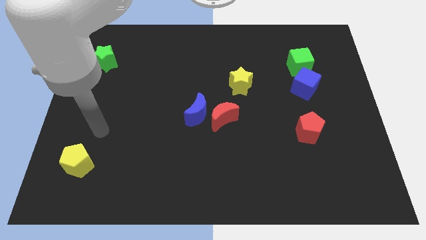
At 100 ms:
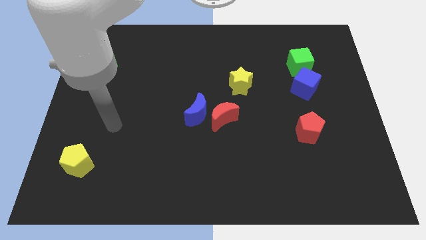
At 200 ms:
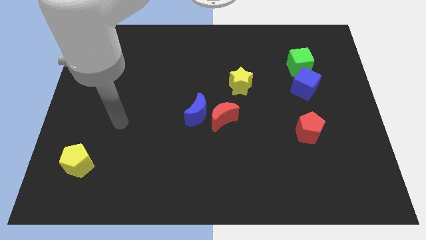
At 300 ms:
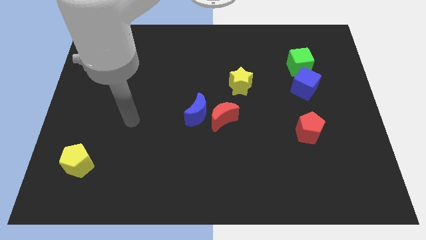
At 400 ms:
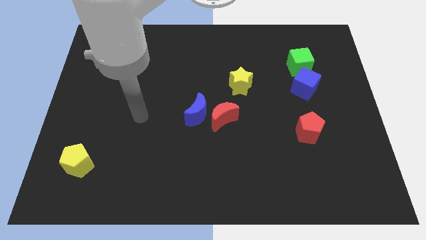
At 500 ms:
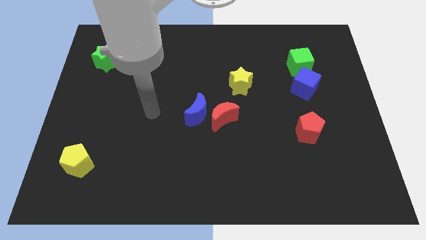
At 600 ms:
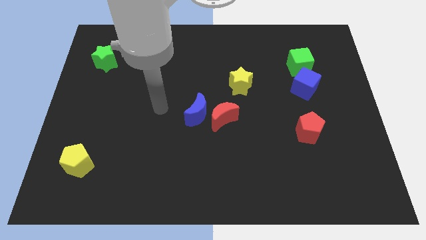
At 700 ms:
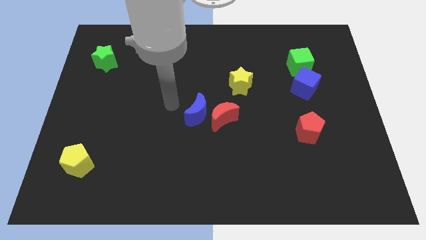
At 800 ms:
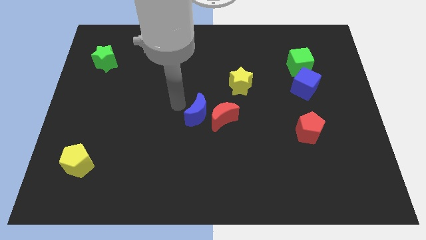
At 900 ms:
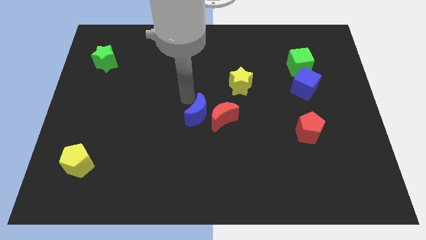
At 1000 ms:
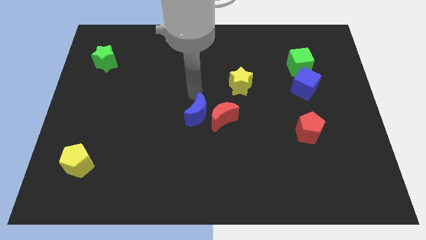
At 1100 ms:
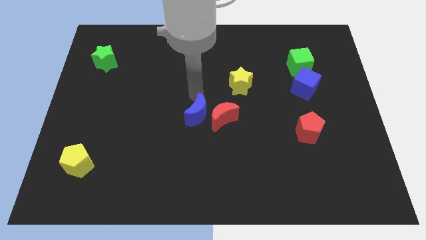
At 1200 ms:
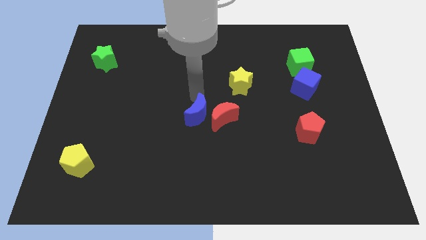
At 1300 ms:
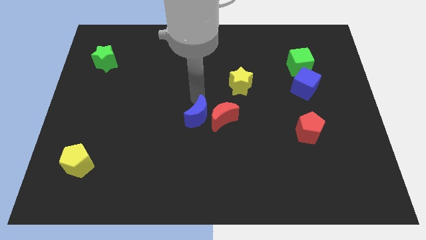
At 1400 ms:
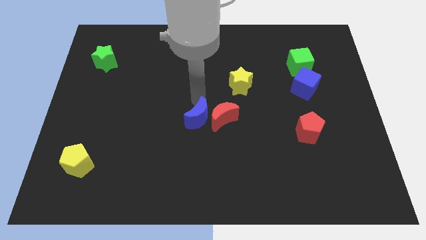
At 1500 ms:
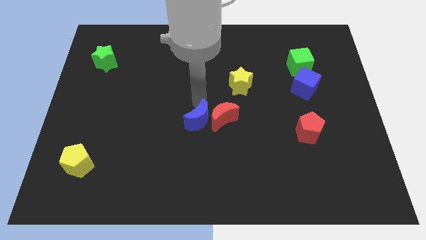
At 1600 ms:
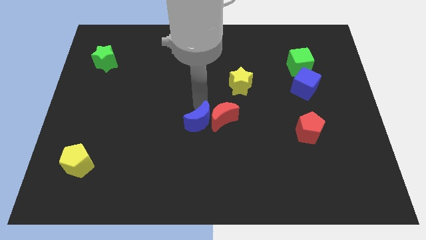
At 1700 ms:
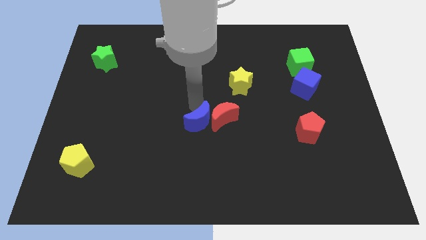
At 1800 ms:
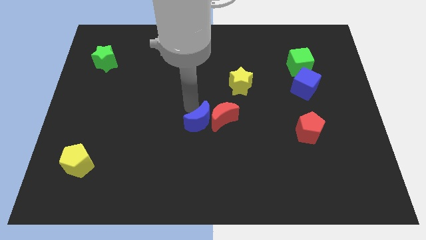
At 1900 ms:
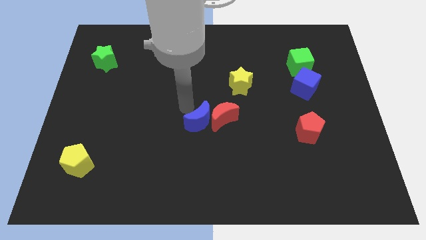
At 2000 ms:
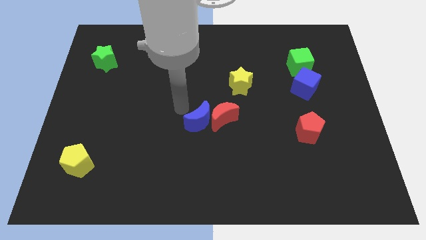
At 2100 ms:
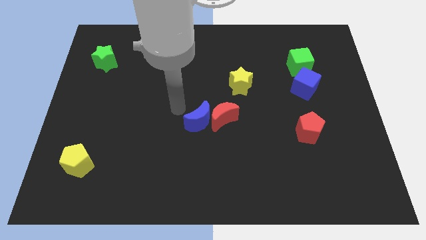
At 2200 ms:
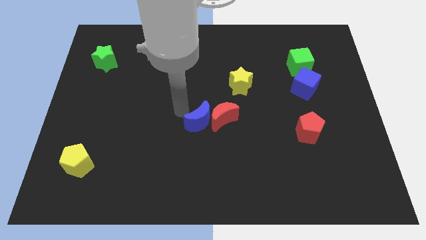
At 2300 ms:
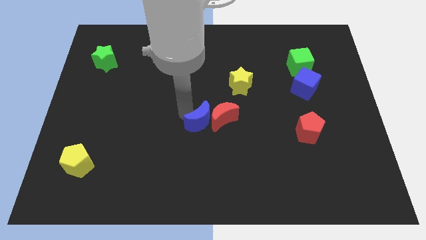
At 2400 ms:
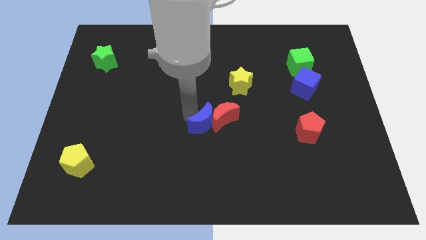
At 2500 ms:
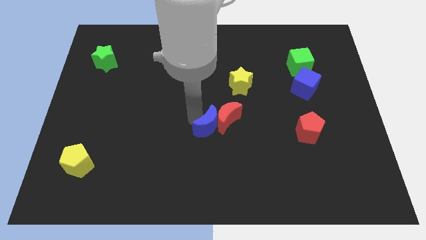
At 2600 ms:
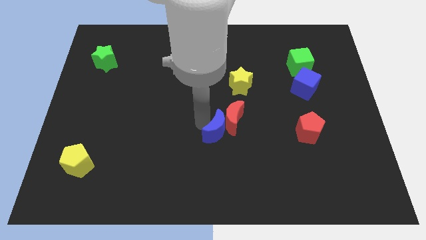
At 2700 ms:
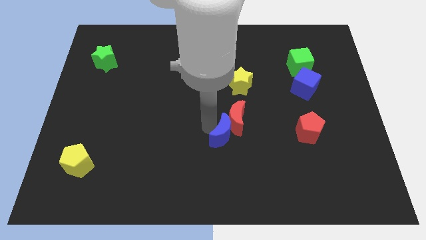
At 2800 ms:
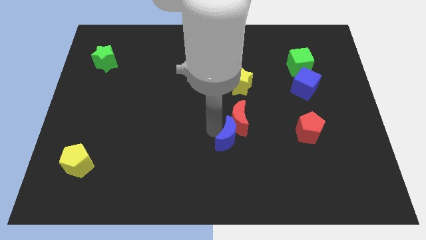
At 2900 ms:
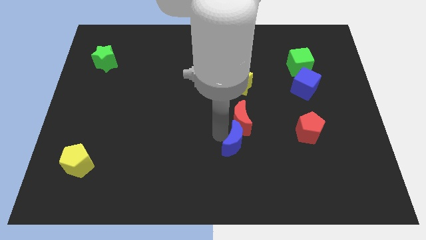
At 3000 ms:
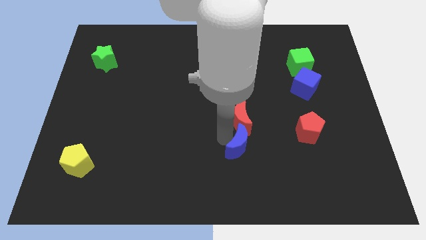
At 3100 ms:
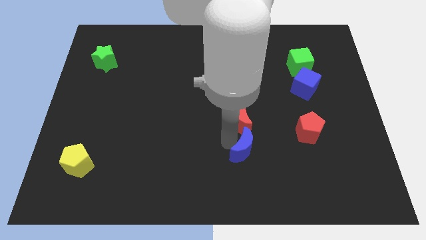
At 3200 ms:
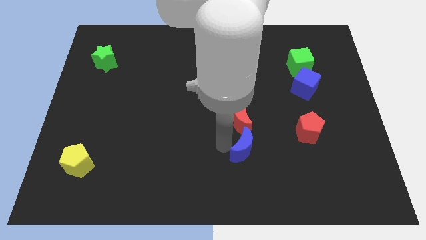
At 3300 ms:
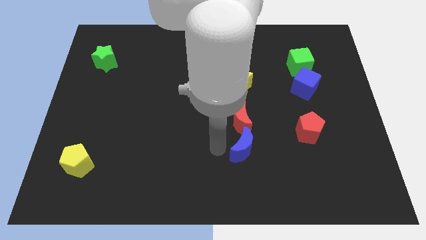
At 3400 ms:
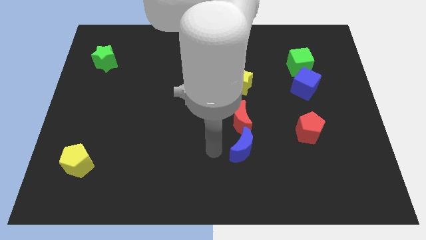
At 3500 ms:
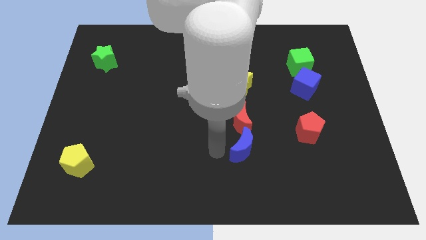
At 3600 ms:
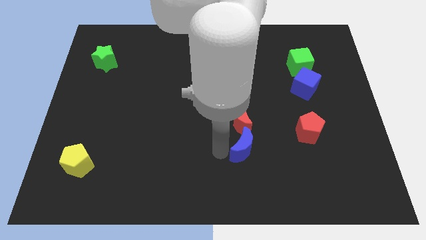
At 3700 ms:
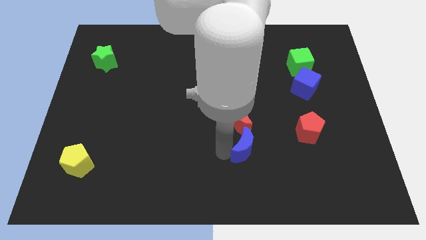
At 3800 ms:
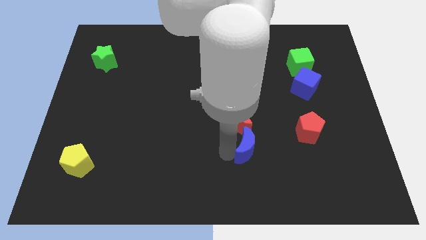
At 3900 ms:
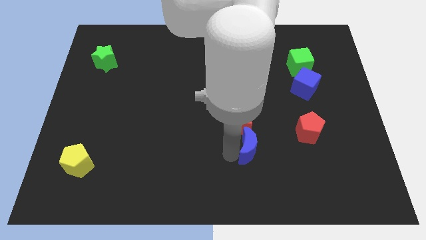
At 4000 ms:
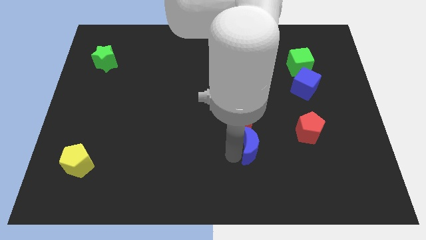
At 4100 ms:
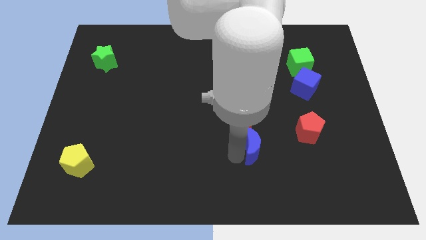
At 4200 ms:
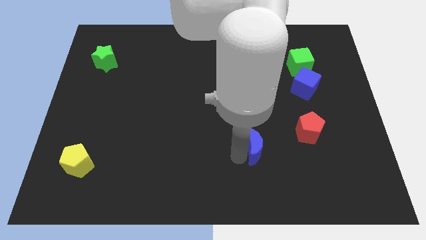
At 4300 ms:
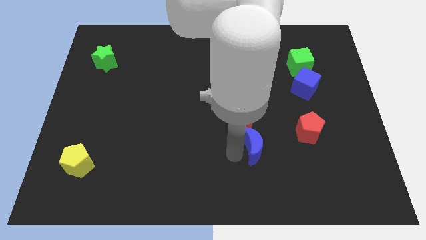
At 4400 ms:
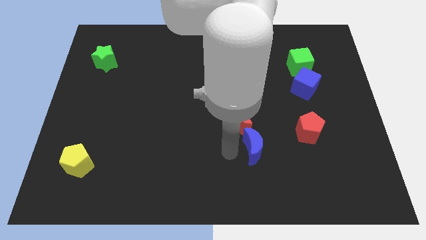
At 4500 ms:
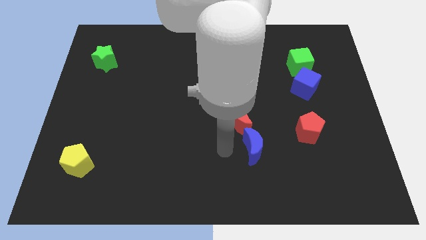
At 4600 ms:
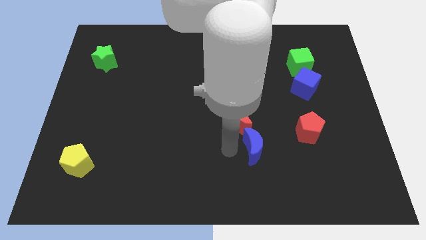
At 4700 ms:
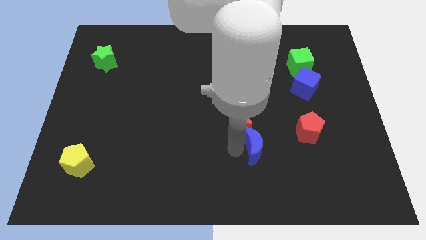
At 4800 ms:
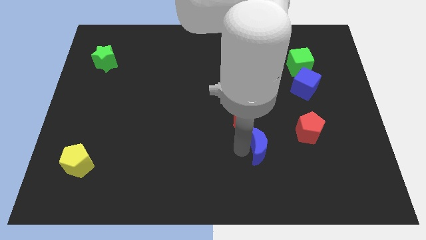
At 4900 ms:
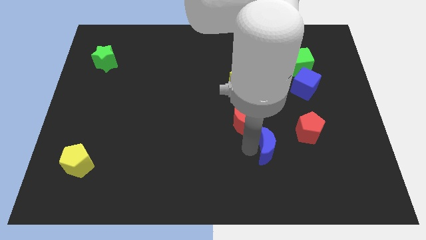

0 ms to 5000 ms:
put the blue moon diagonally down and to the left of the red pentagon

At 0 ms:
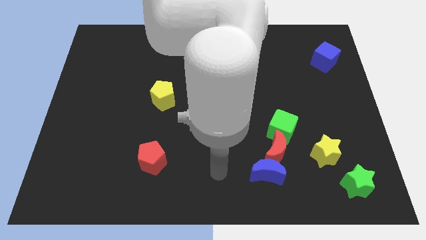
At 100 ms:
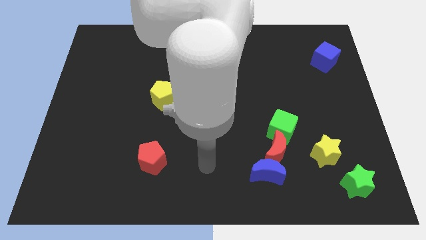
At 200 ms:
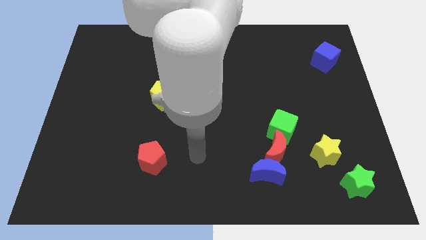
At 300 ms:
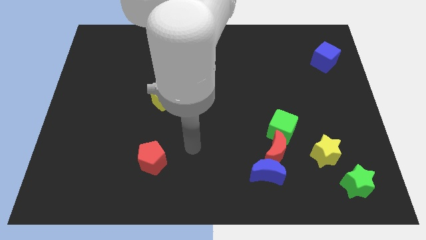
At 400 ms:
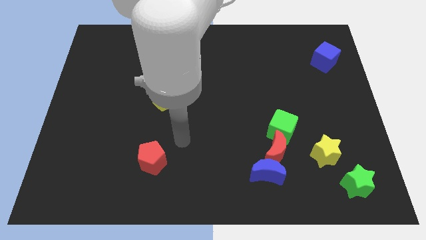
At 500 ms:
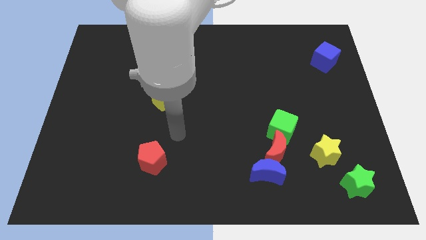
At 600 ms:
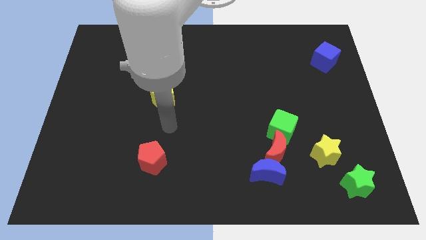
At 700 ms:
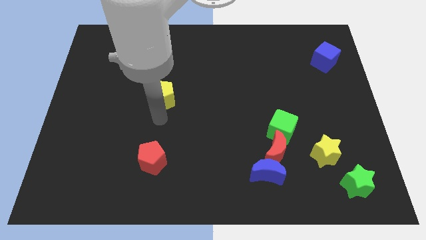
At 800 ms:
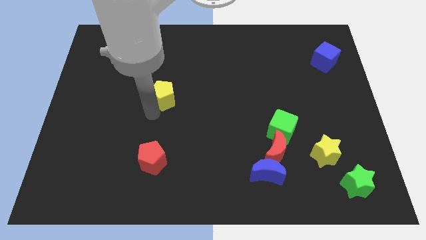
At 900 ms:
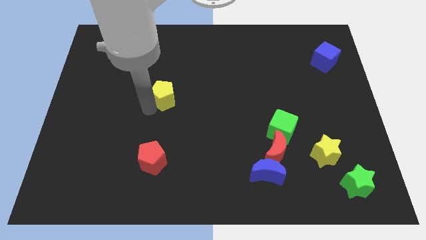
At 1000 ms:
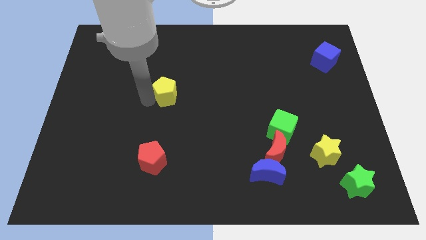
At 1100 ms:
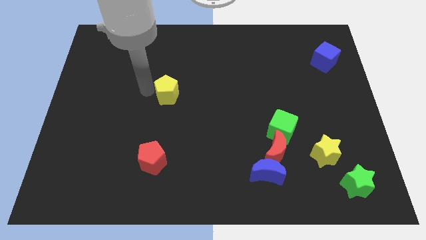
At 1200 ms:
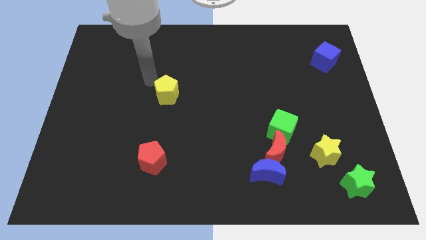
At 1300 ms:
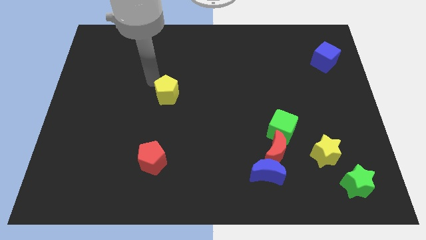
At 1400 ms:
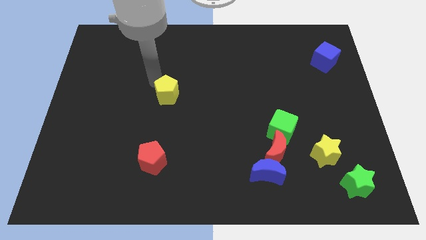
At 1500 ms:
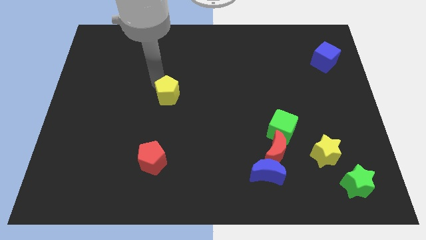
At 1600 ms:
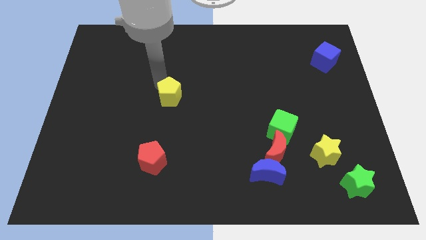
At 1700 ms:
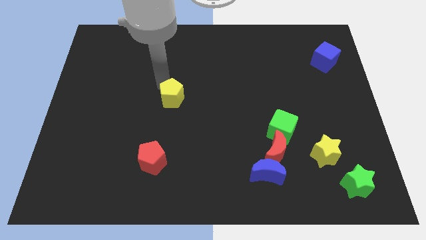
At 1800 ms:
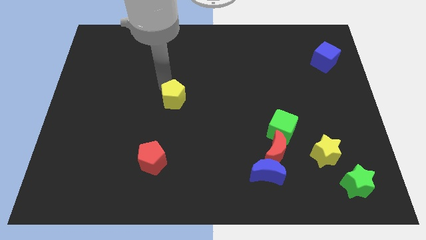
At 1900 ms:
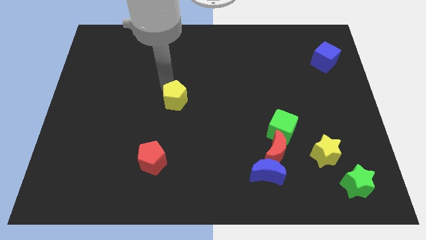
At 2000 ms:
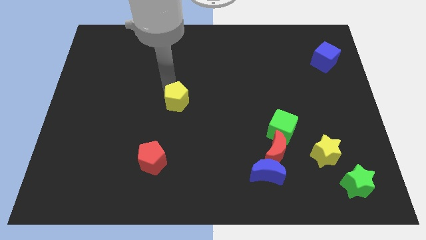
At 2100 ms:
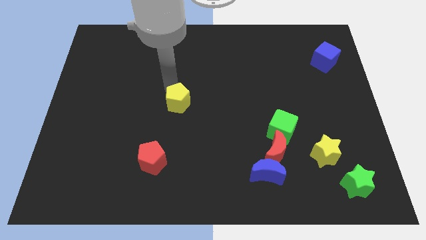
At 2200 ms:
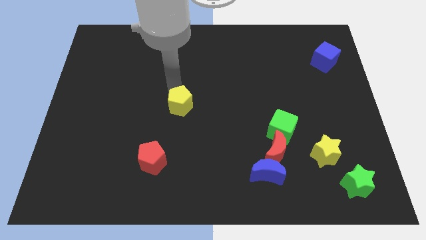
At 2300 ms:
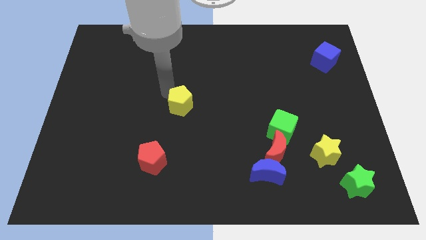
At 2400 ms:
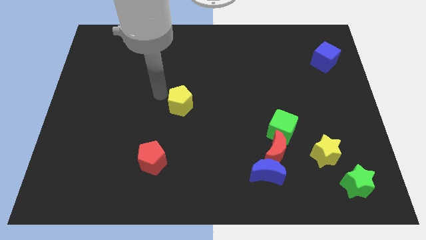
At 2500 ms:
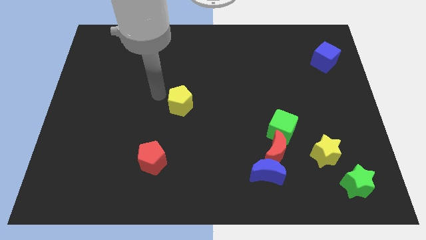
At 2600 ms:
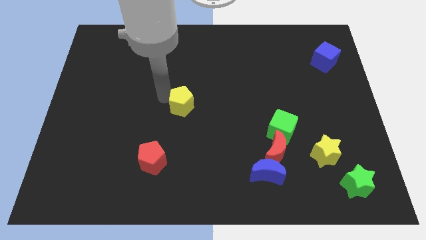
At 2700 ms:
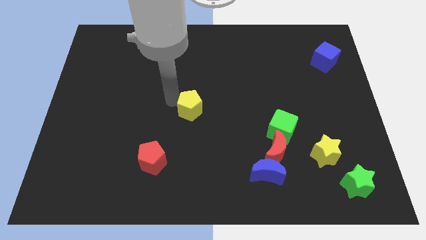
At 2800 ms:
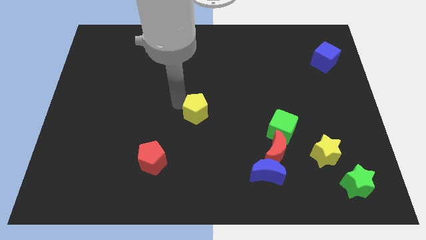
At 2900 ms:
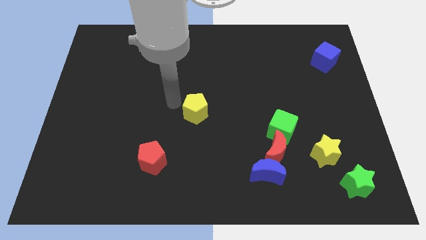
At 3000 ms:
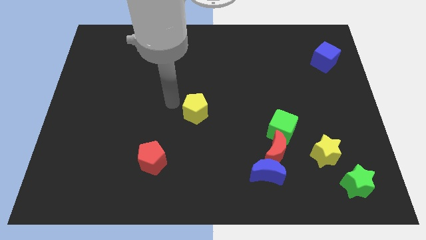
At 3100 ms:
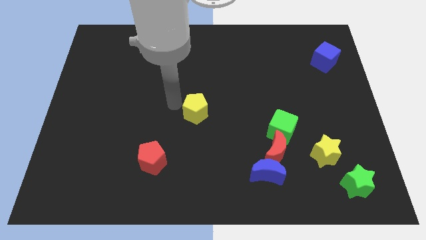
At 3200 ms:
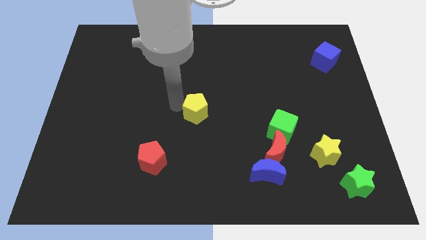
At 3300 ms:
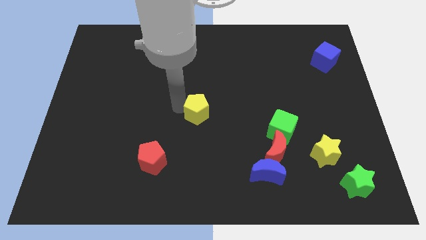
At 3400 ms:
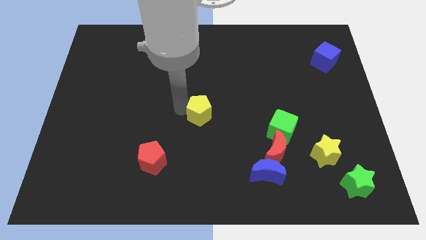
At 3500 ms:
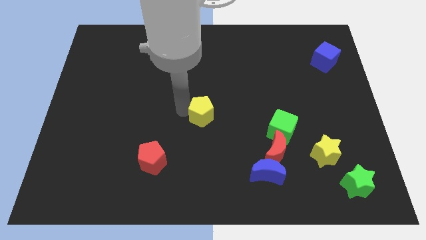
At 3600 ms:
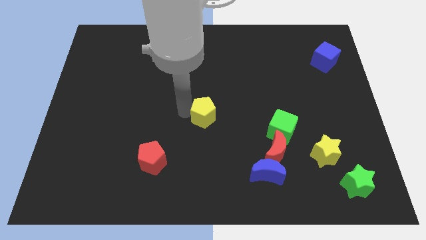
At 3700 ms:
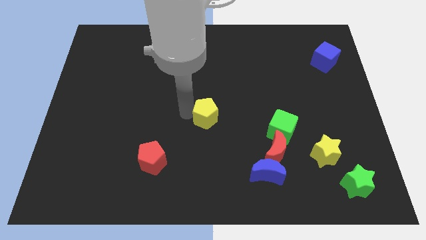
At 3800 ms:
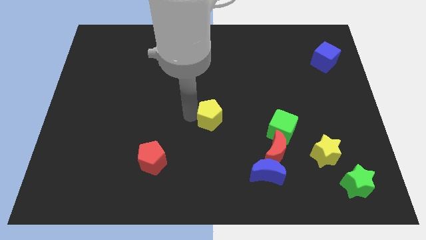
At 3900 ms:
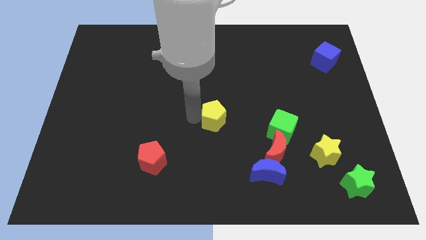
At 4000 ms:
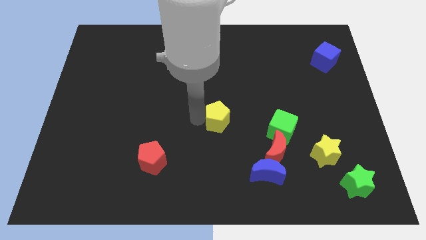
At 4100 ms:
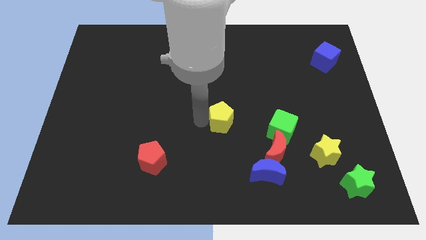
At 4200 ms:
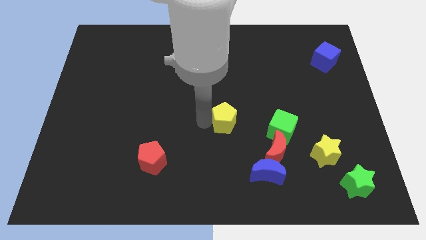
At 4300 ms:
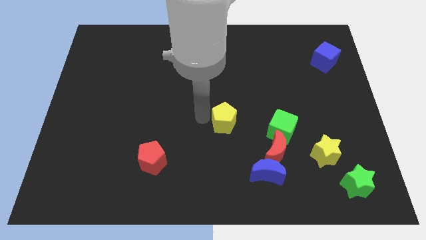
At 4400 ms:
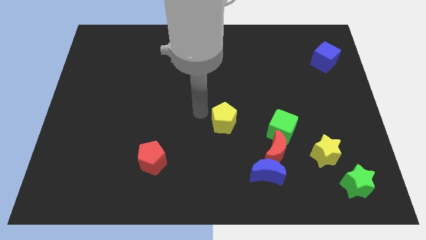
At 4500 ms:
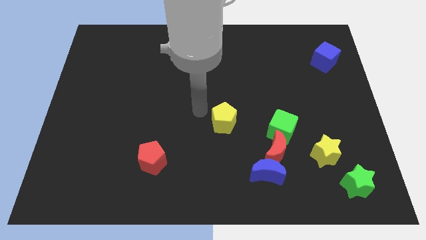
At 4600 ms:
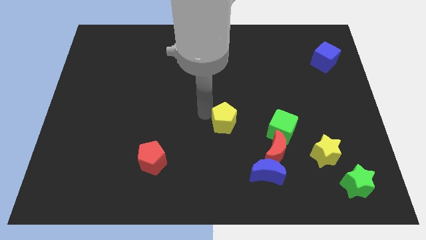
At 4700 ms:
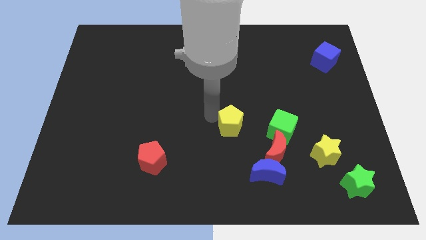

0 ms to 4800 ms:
move the yellow pentagon to the top left of the red moon
